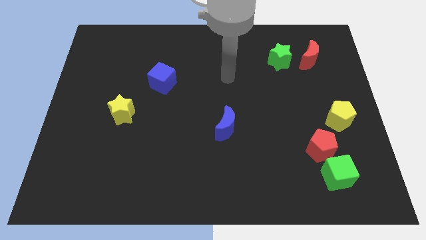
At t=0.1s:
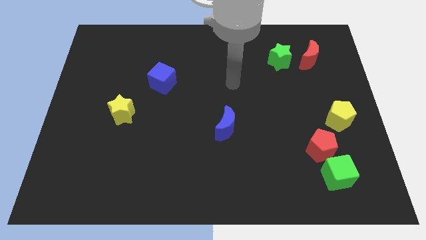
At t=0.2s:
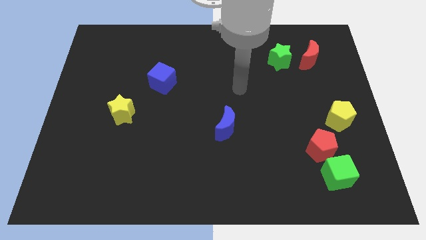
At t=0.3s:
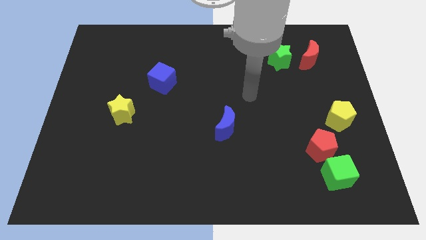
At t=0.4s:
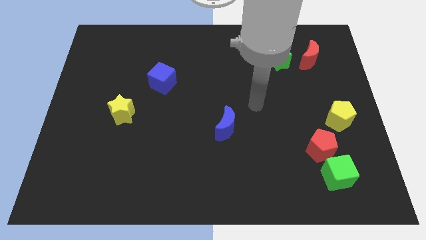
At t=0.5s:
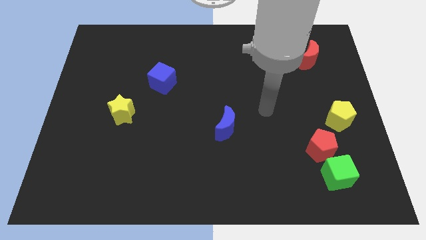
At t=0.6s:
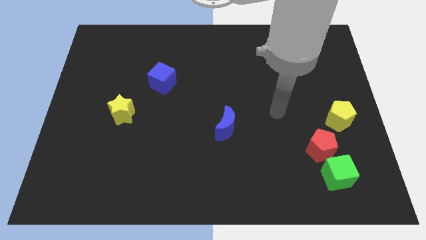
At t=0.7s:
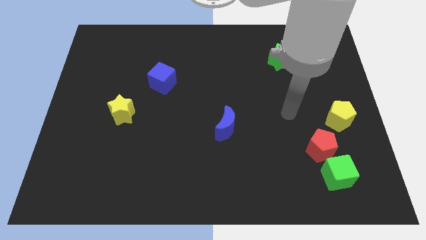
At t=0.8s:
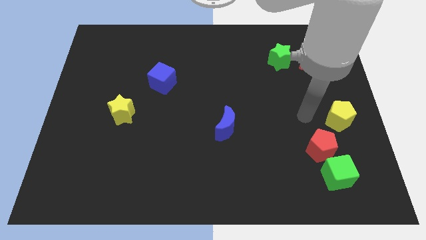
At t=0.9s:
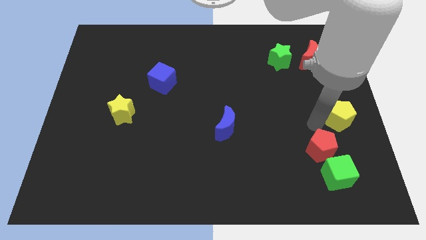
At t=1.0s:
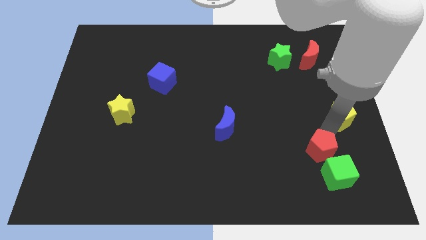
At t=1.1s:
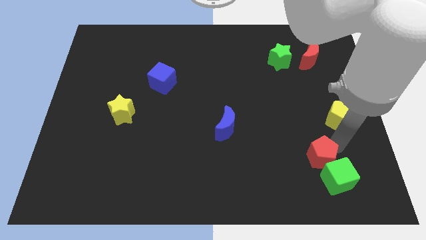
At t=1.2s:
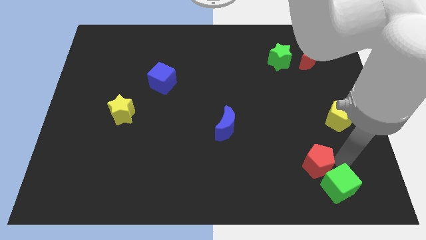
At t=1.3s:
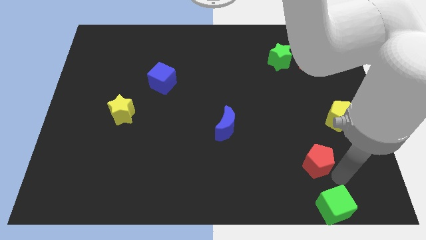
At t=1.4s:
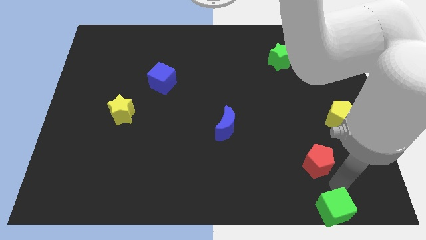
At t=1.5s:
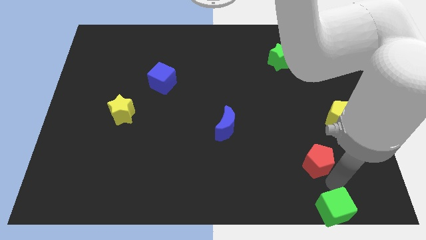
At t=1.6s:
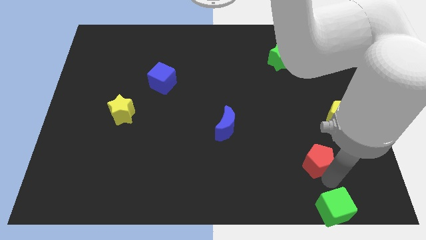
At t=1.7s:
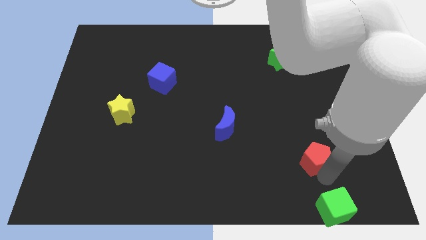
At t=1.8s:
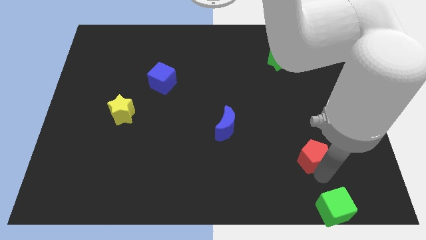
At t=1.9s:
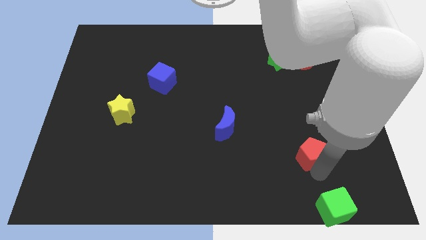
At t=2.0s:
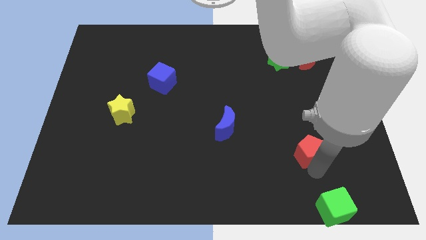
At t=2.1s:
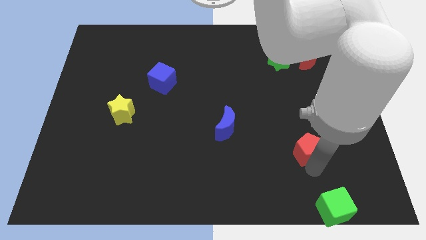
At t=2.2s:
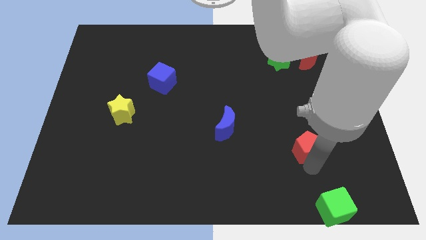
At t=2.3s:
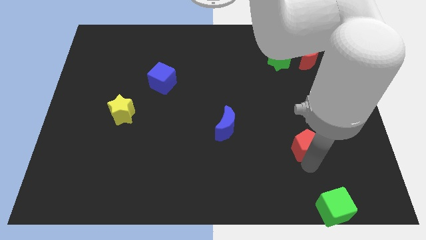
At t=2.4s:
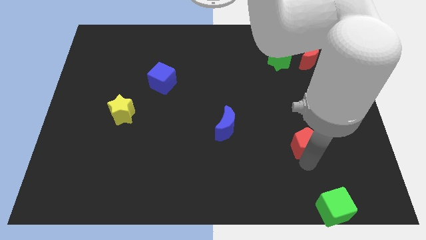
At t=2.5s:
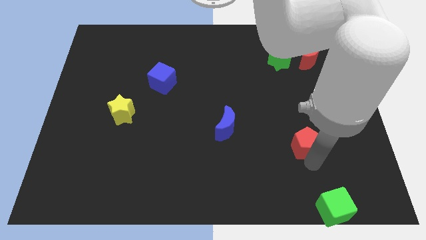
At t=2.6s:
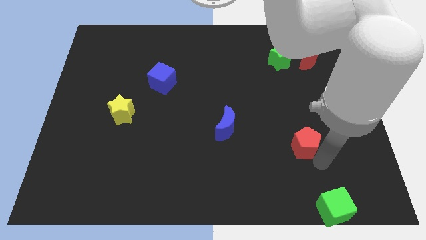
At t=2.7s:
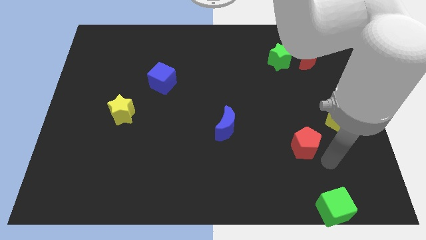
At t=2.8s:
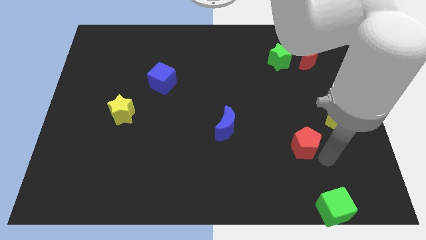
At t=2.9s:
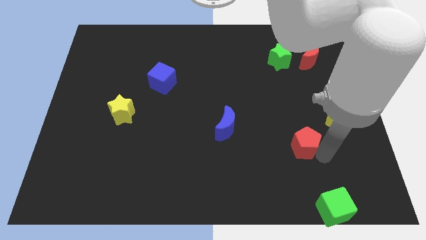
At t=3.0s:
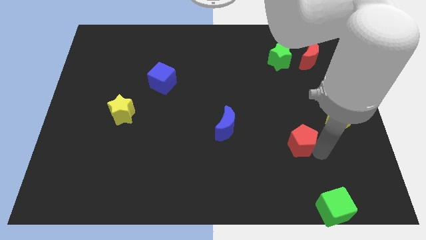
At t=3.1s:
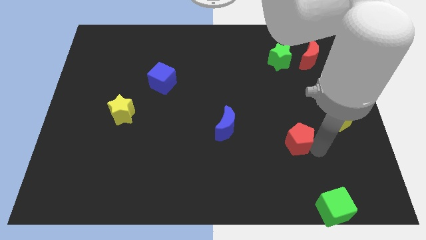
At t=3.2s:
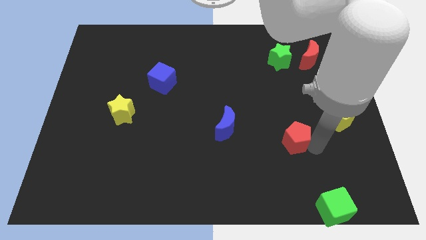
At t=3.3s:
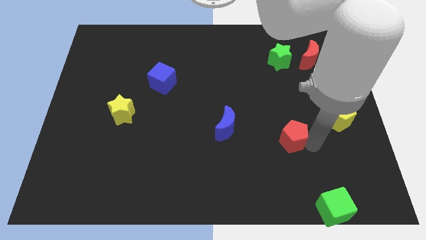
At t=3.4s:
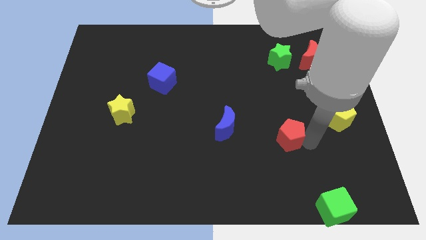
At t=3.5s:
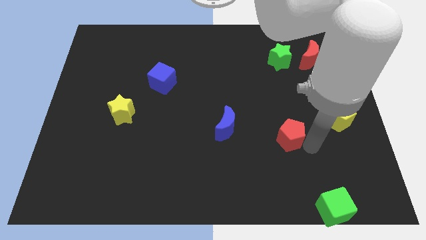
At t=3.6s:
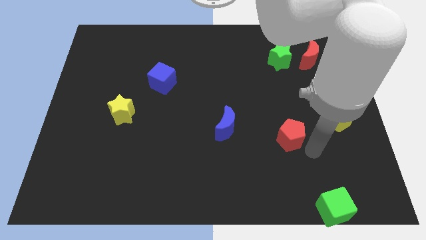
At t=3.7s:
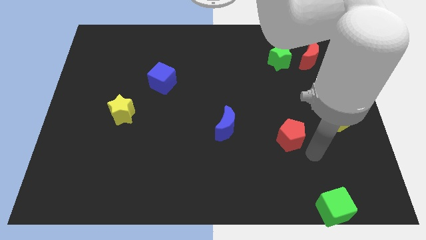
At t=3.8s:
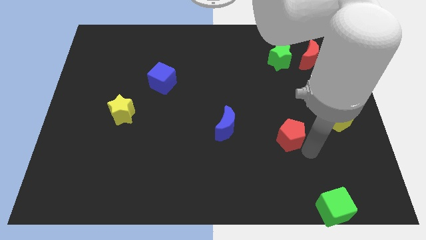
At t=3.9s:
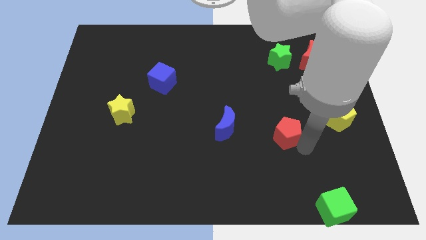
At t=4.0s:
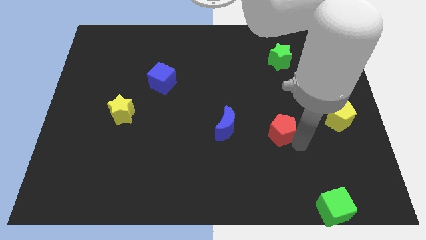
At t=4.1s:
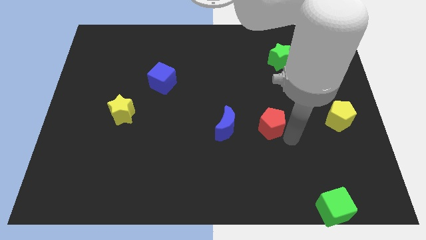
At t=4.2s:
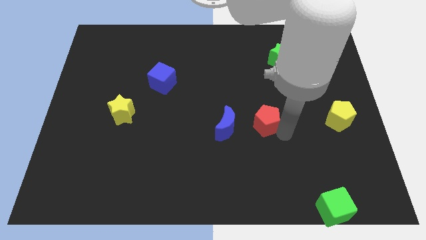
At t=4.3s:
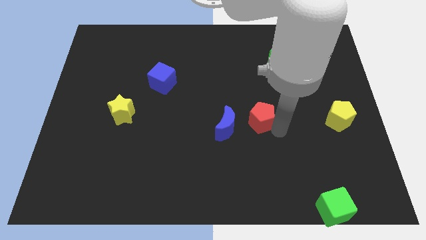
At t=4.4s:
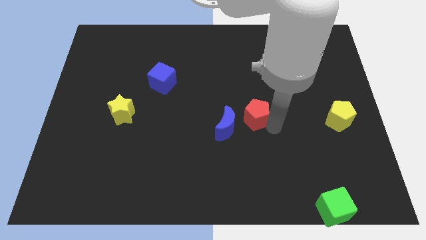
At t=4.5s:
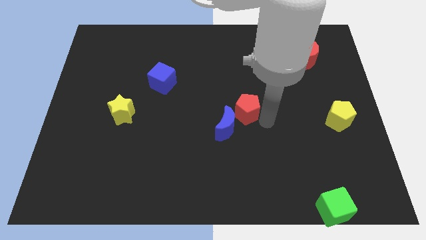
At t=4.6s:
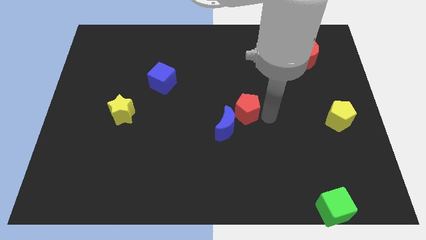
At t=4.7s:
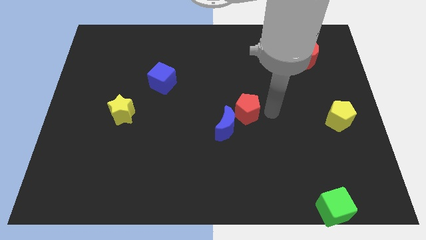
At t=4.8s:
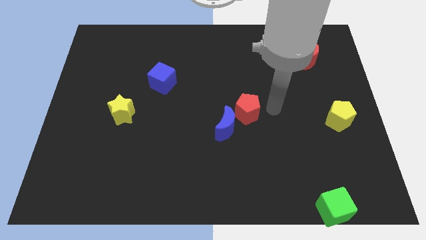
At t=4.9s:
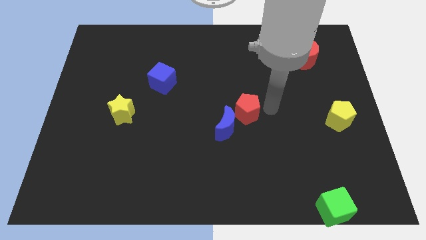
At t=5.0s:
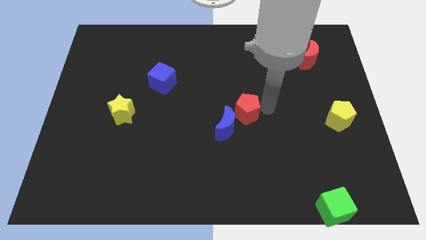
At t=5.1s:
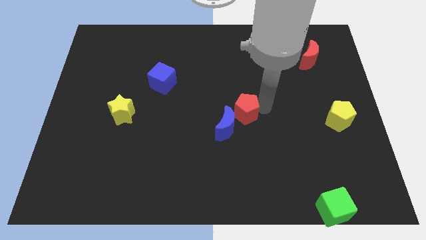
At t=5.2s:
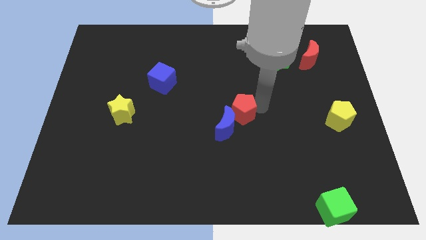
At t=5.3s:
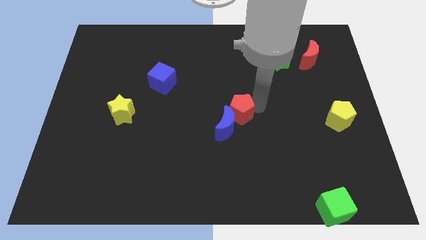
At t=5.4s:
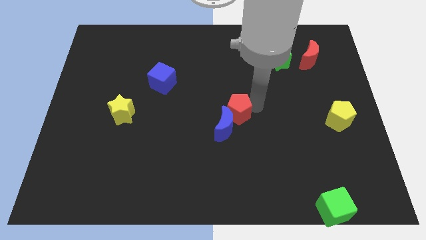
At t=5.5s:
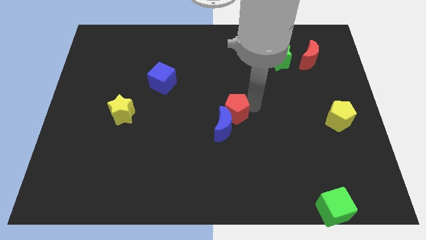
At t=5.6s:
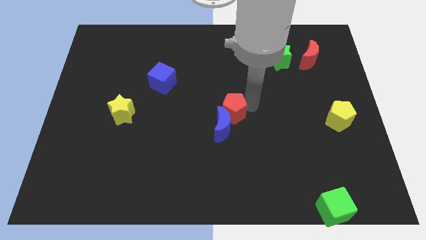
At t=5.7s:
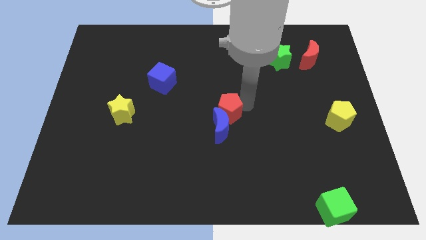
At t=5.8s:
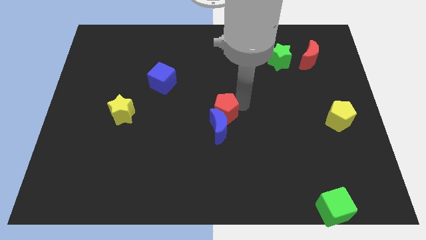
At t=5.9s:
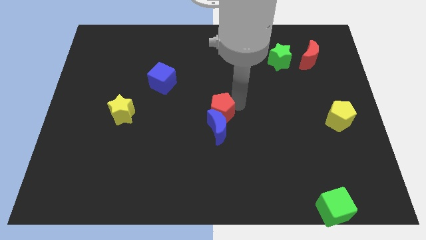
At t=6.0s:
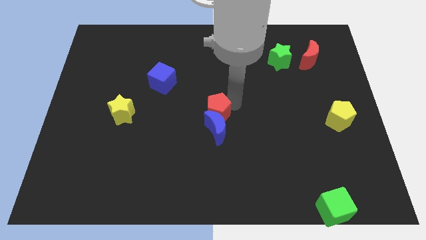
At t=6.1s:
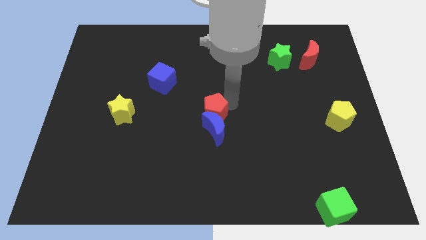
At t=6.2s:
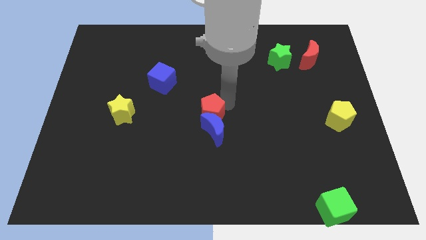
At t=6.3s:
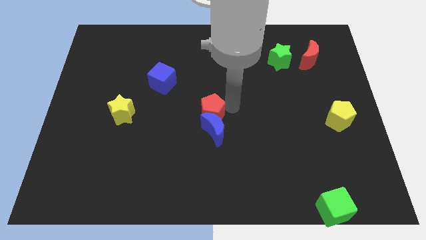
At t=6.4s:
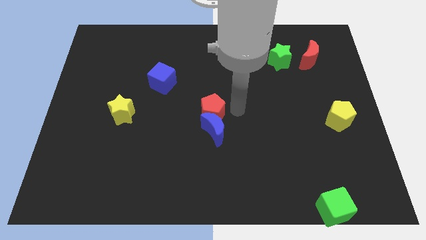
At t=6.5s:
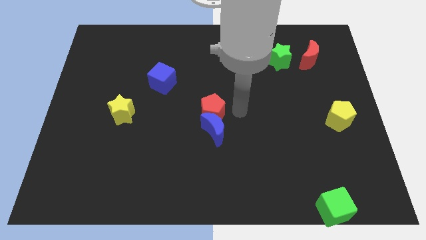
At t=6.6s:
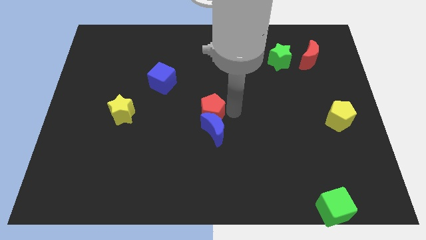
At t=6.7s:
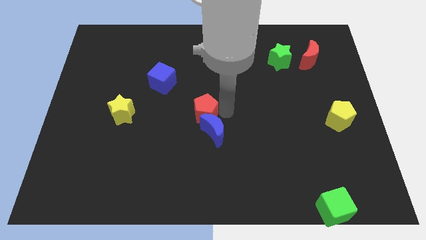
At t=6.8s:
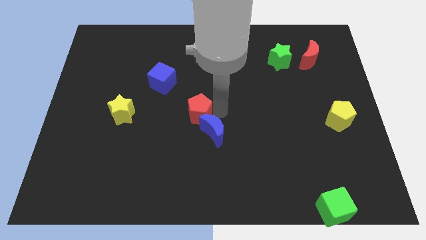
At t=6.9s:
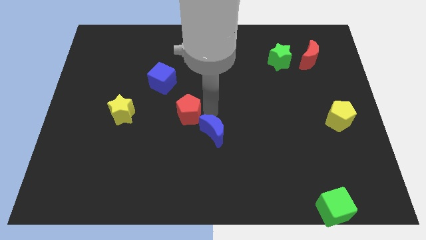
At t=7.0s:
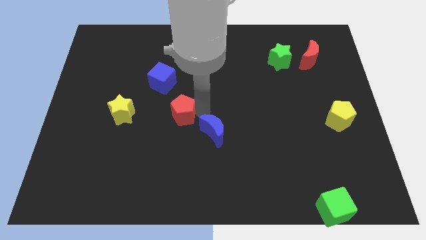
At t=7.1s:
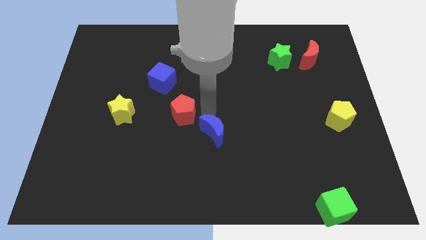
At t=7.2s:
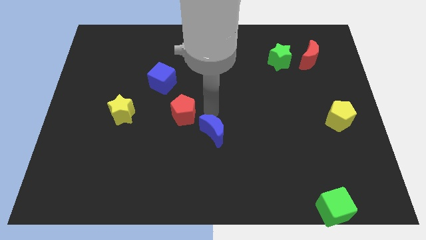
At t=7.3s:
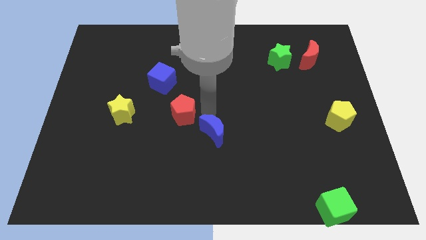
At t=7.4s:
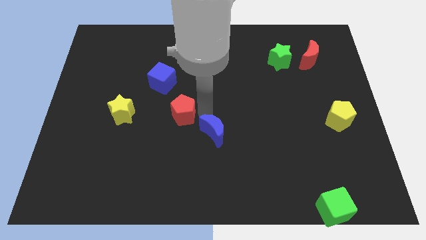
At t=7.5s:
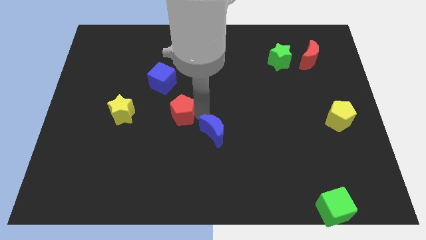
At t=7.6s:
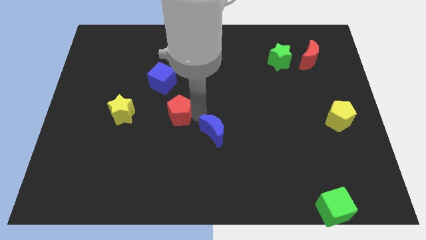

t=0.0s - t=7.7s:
push the red pentagon to the bottom side of the blue cube
